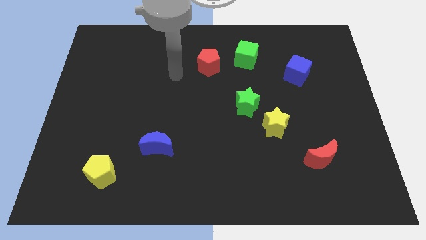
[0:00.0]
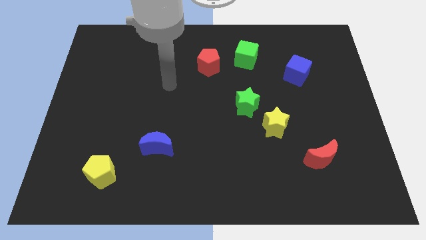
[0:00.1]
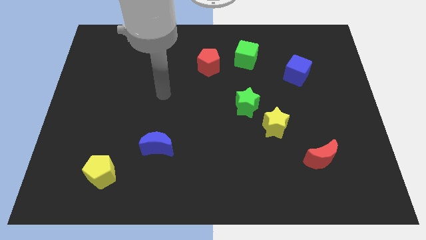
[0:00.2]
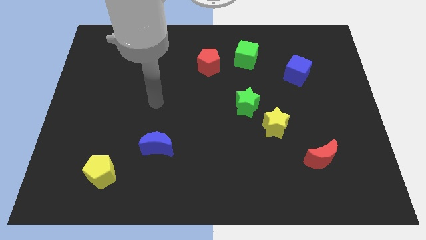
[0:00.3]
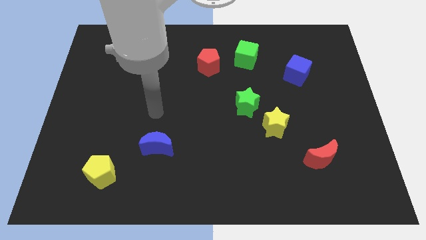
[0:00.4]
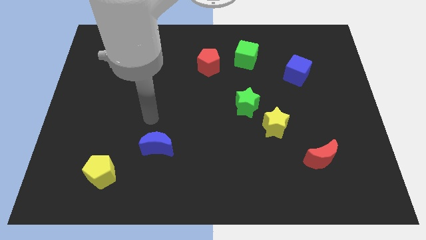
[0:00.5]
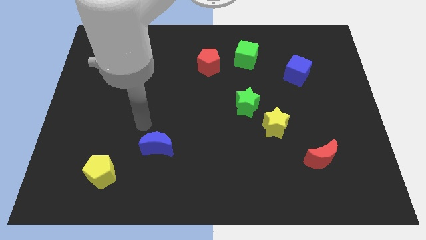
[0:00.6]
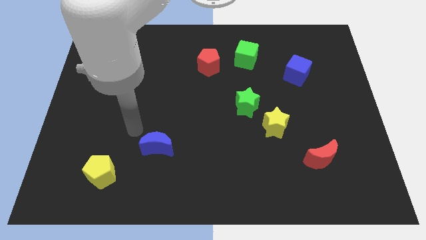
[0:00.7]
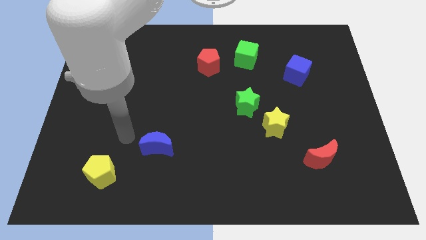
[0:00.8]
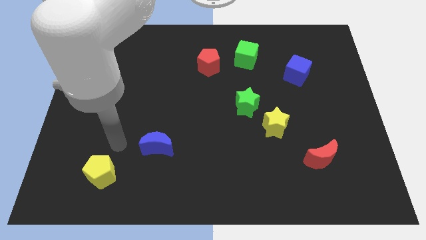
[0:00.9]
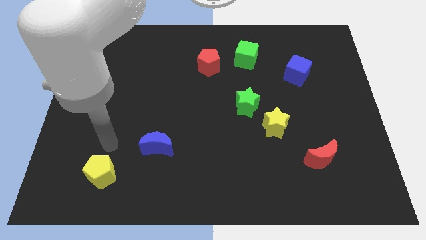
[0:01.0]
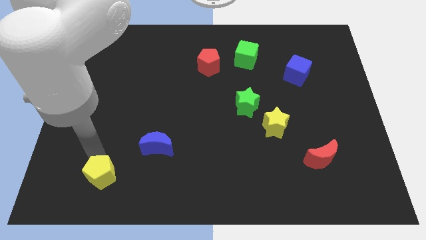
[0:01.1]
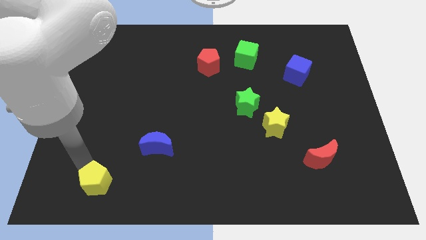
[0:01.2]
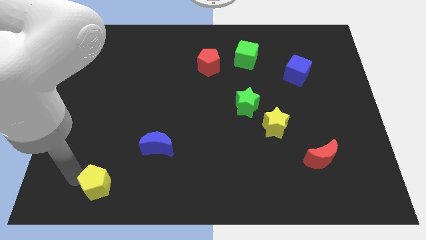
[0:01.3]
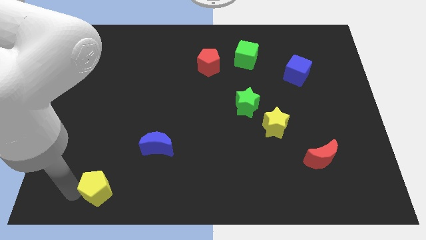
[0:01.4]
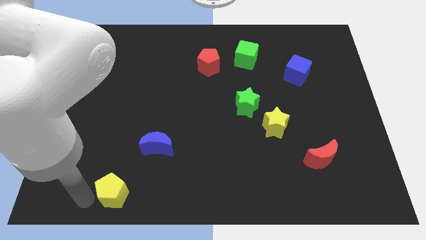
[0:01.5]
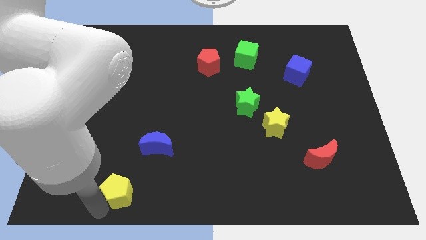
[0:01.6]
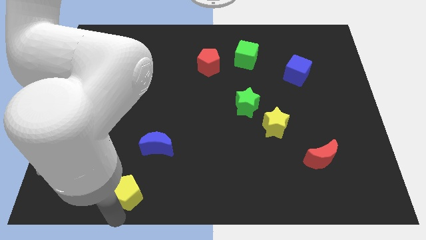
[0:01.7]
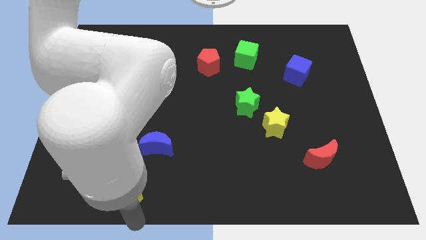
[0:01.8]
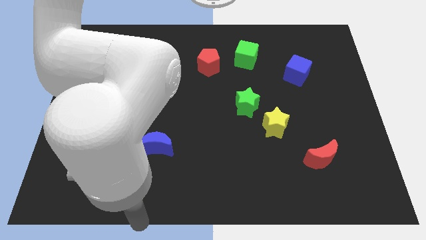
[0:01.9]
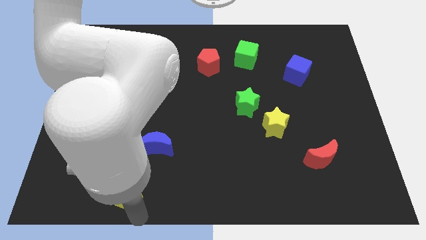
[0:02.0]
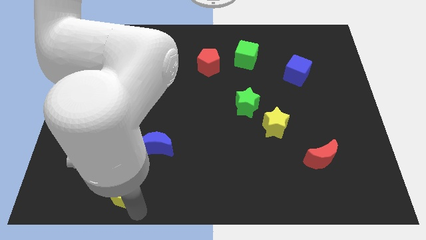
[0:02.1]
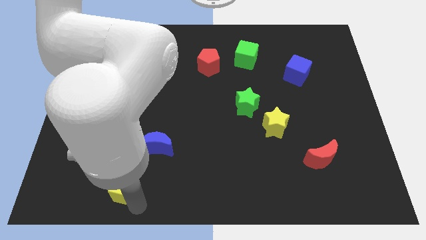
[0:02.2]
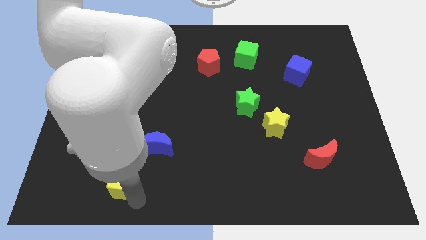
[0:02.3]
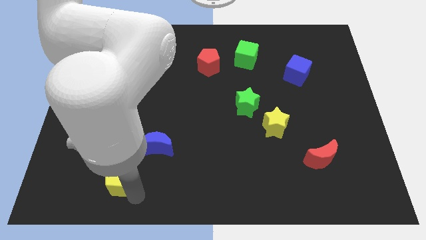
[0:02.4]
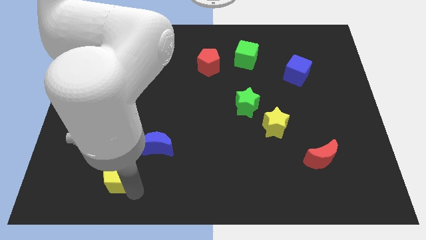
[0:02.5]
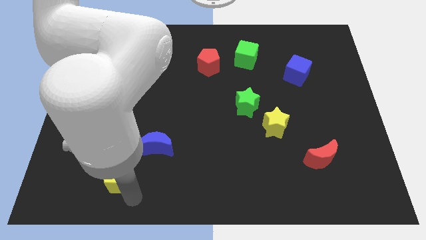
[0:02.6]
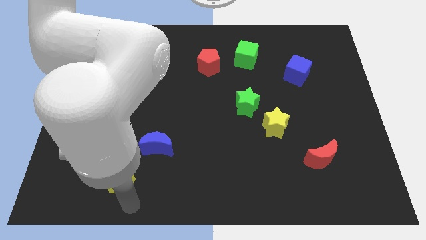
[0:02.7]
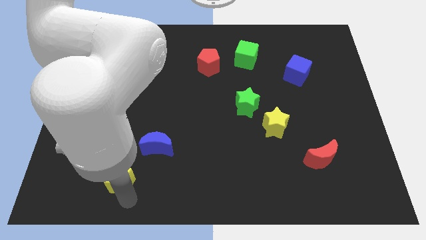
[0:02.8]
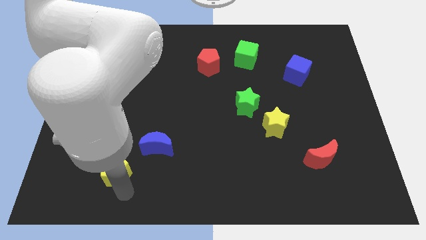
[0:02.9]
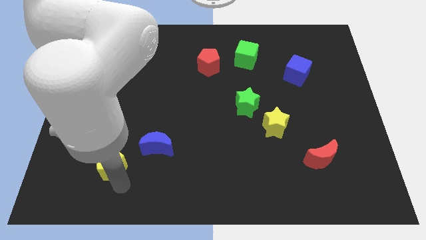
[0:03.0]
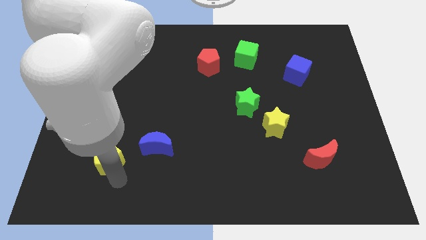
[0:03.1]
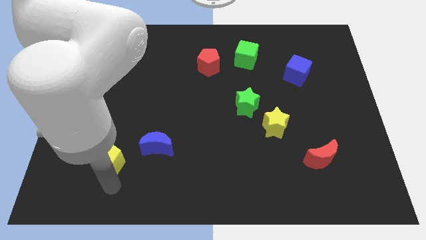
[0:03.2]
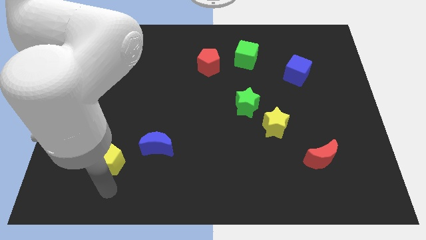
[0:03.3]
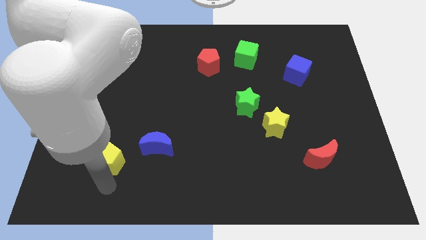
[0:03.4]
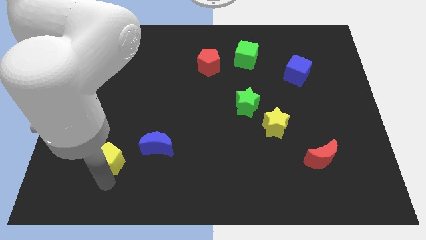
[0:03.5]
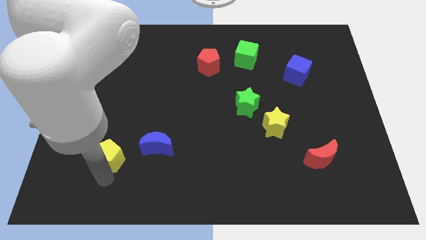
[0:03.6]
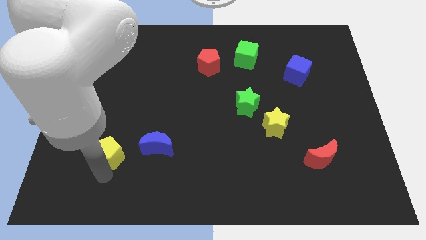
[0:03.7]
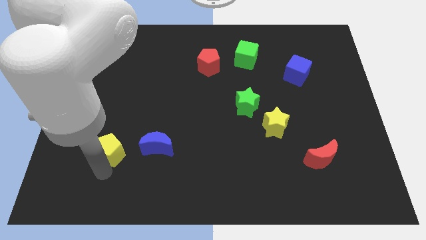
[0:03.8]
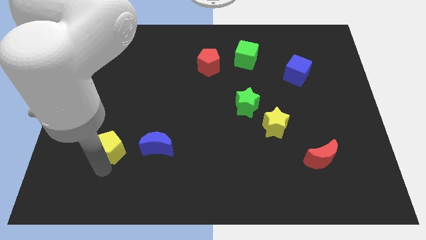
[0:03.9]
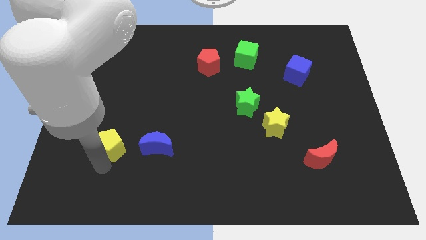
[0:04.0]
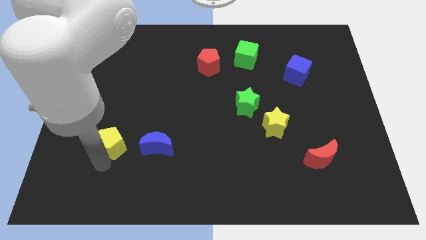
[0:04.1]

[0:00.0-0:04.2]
slide the yellow pentagon a little bit upwards

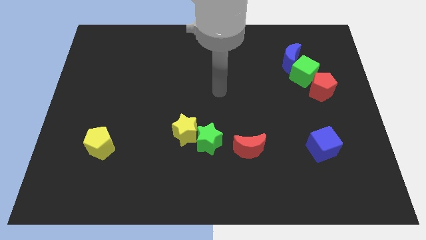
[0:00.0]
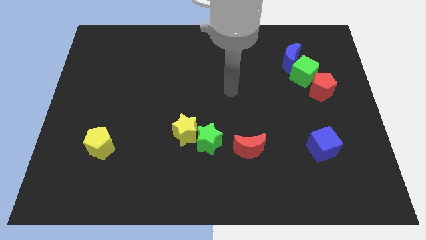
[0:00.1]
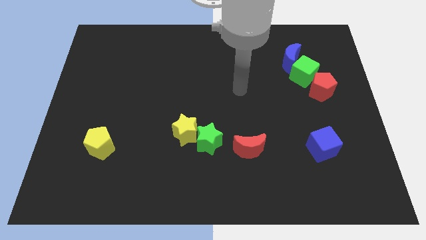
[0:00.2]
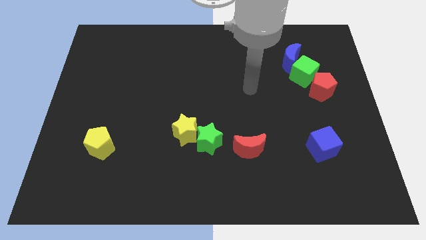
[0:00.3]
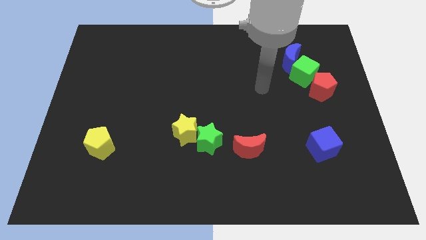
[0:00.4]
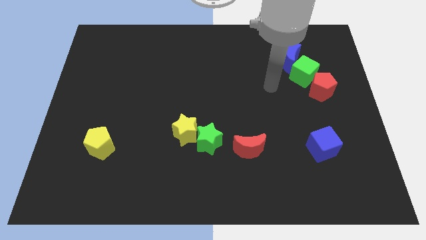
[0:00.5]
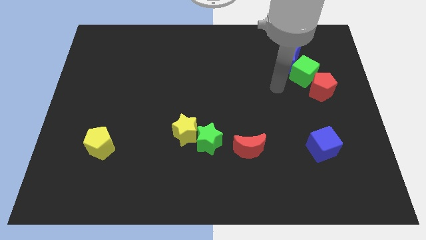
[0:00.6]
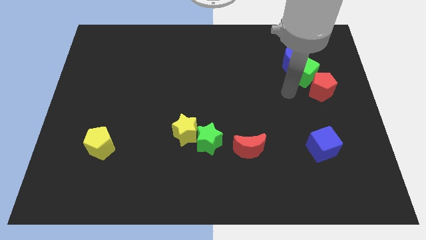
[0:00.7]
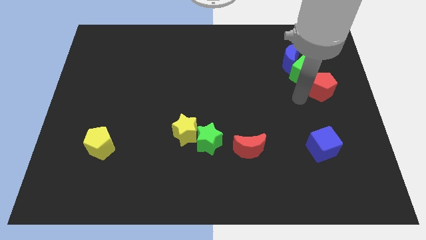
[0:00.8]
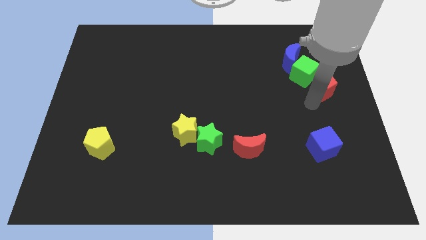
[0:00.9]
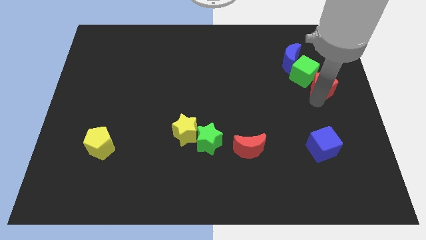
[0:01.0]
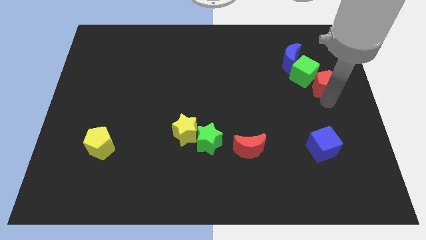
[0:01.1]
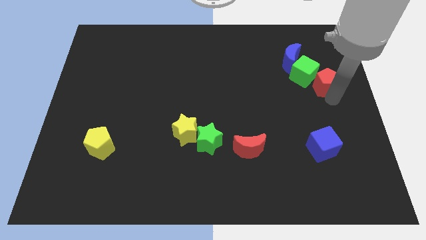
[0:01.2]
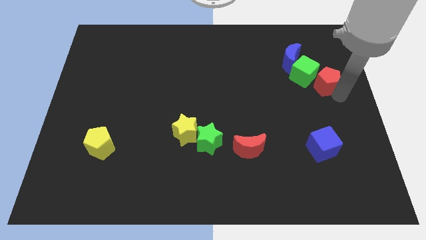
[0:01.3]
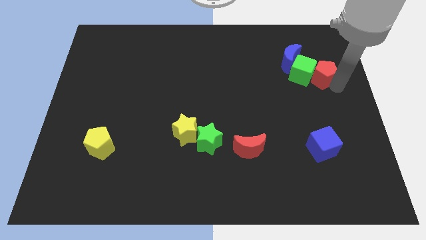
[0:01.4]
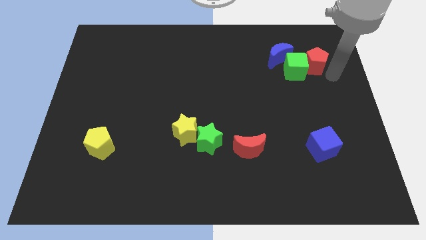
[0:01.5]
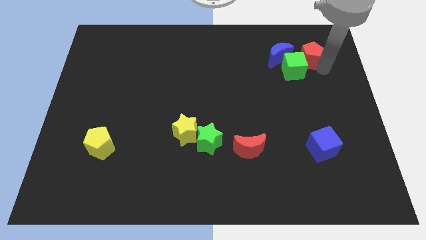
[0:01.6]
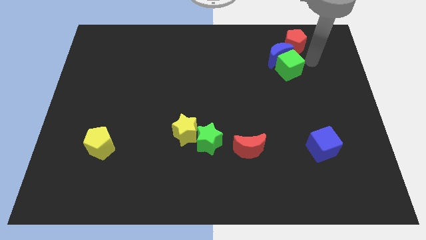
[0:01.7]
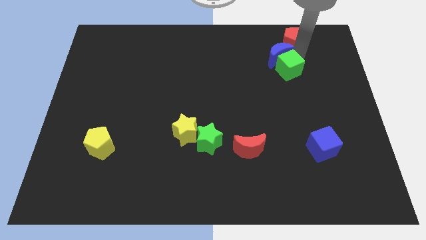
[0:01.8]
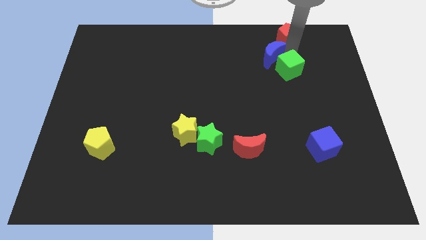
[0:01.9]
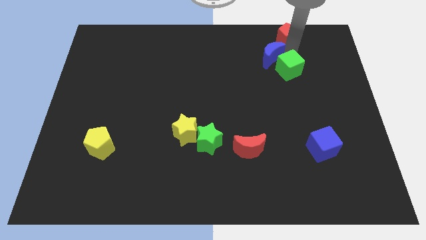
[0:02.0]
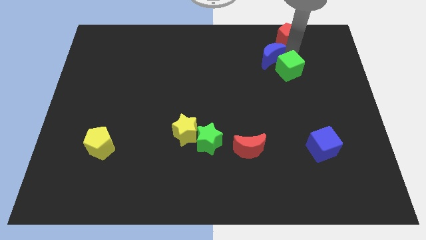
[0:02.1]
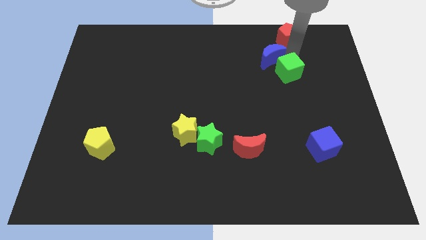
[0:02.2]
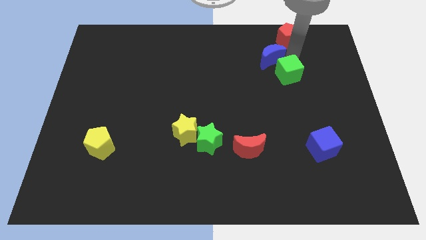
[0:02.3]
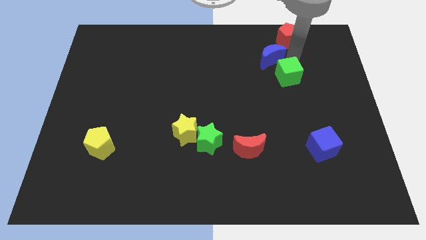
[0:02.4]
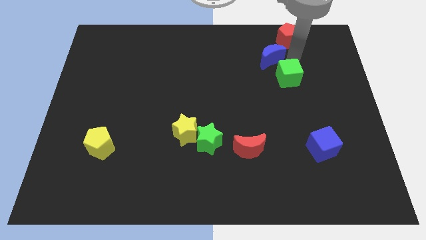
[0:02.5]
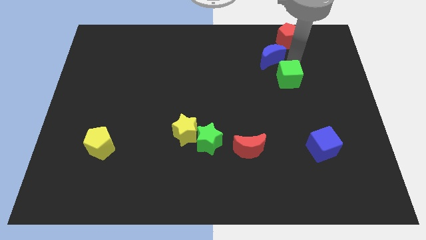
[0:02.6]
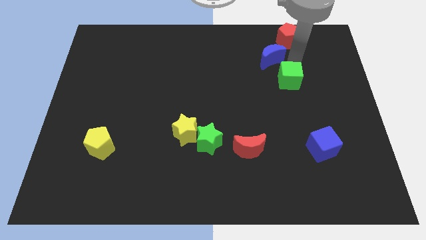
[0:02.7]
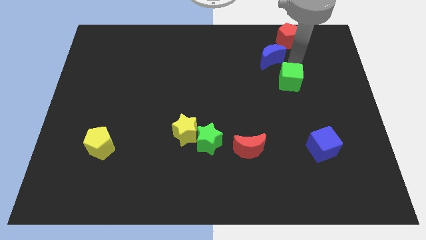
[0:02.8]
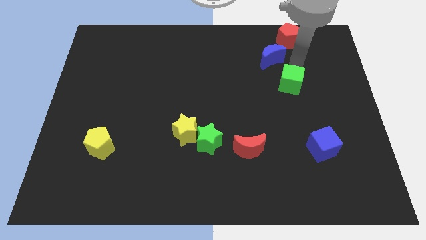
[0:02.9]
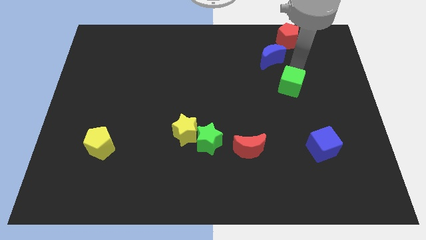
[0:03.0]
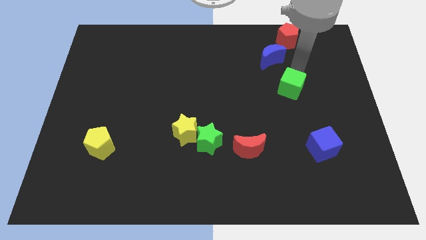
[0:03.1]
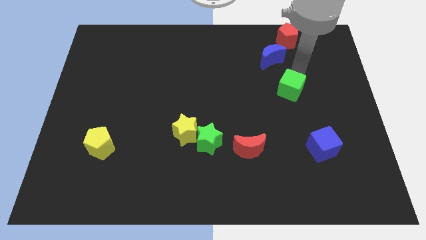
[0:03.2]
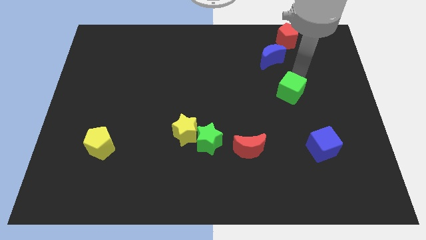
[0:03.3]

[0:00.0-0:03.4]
move the green cube diagonally downwards and left somewhat

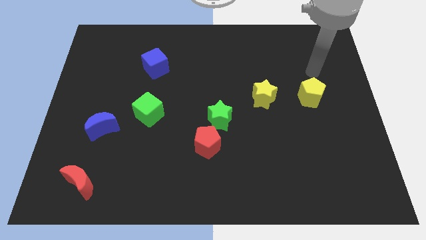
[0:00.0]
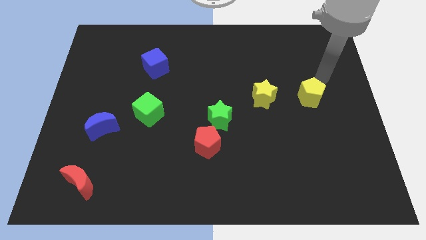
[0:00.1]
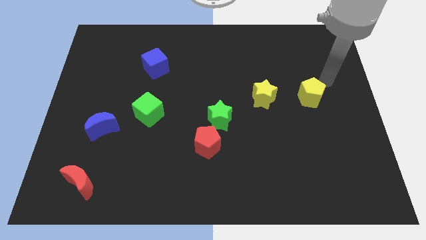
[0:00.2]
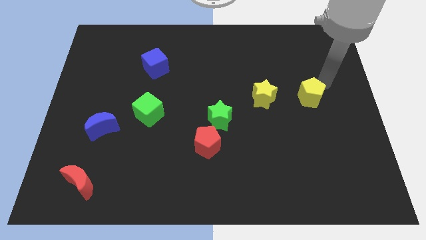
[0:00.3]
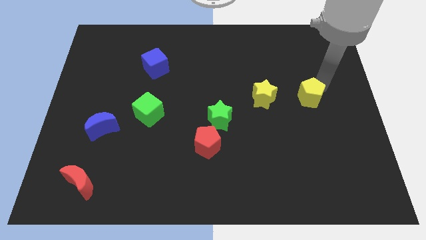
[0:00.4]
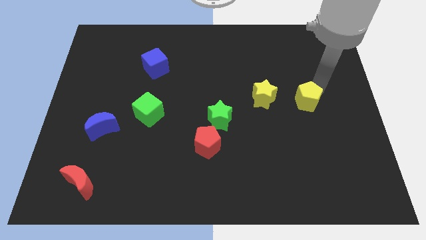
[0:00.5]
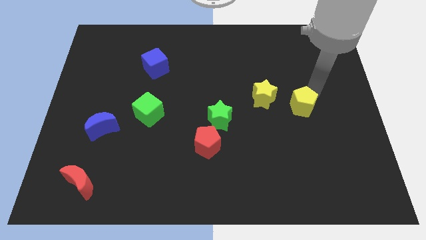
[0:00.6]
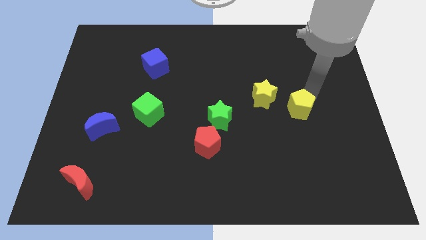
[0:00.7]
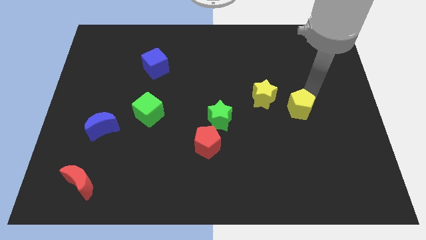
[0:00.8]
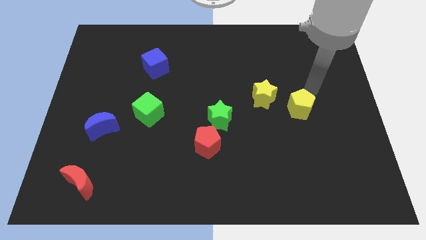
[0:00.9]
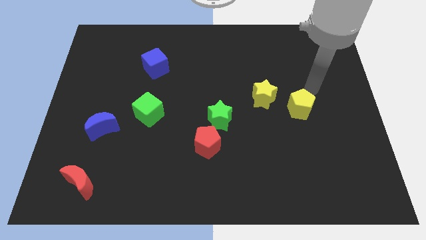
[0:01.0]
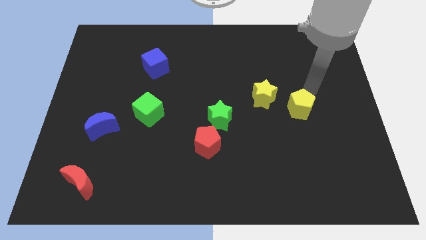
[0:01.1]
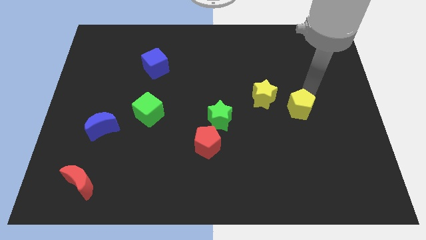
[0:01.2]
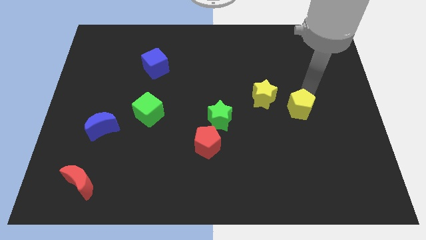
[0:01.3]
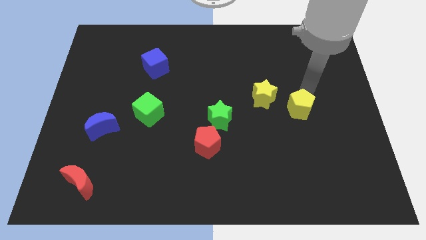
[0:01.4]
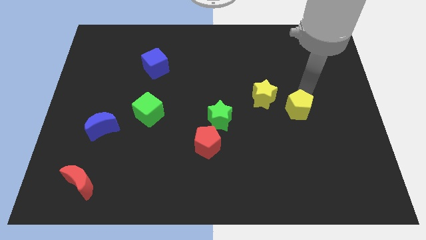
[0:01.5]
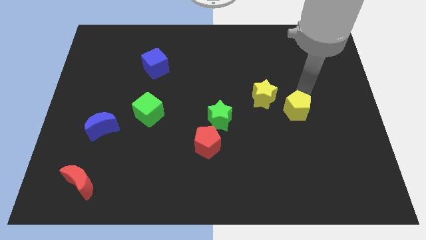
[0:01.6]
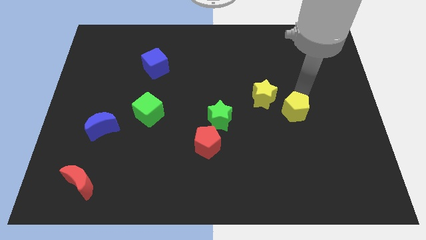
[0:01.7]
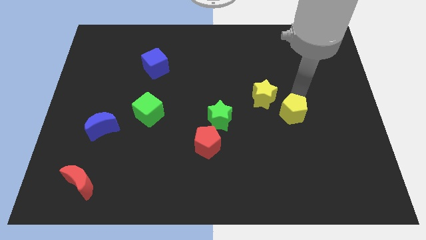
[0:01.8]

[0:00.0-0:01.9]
slide the yellow pentagon diagonally downwards and left a little bit
